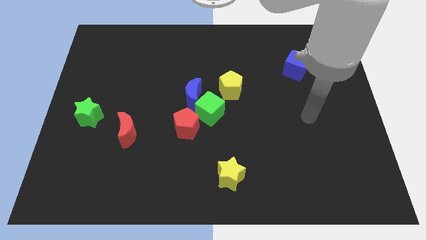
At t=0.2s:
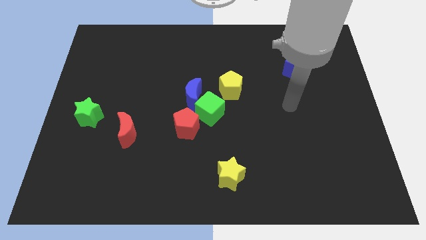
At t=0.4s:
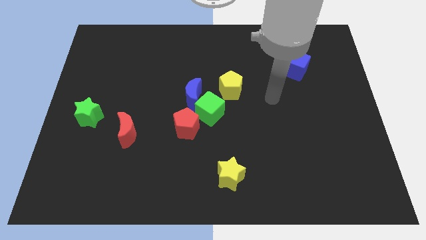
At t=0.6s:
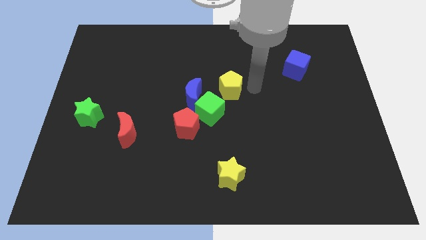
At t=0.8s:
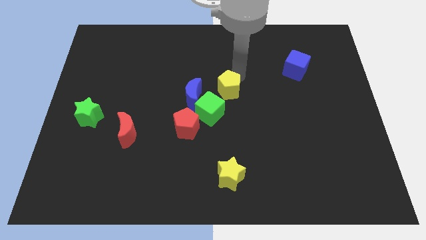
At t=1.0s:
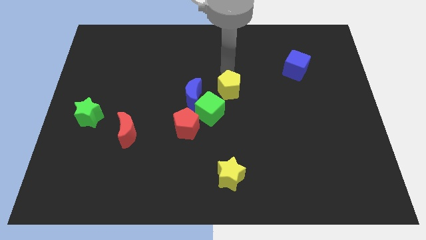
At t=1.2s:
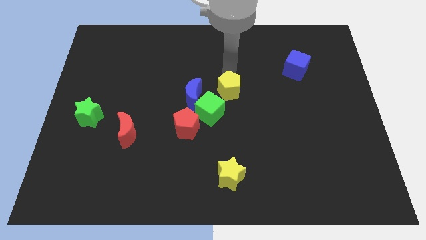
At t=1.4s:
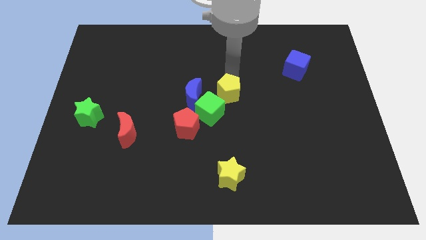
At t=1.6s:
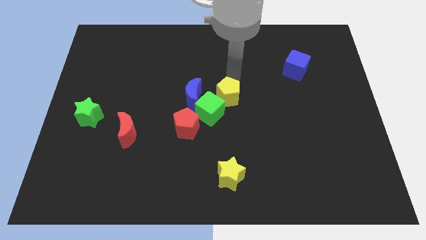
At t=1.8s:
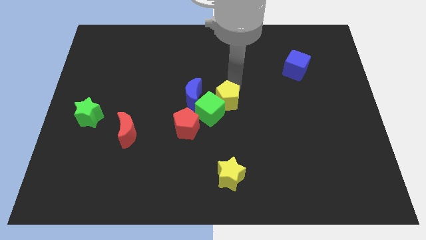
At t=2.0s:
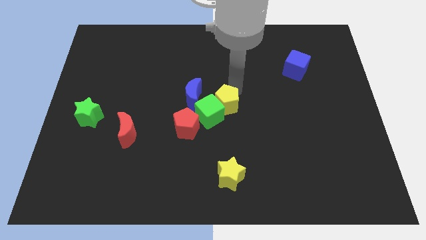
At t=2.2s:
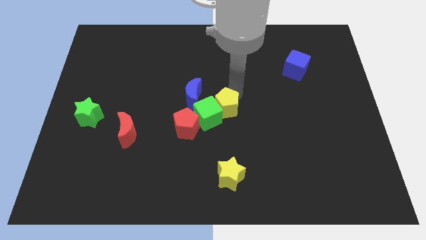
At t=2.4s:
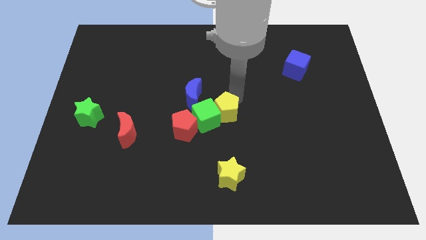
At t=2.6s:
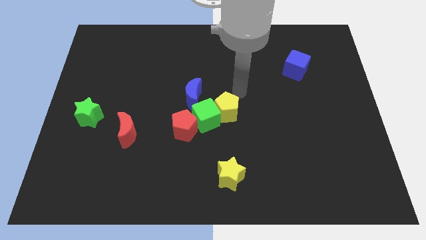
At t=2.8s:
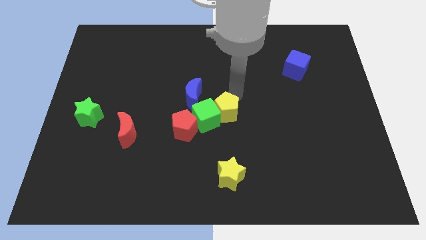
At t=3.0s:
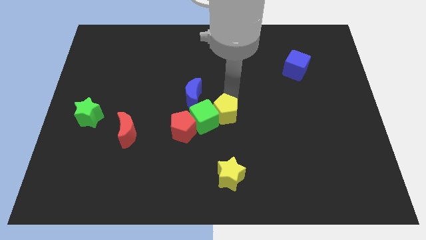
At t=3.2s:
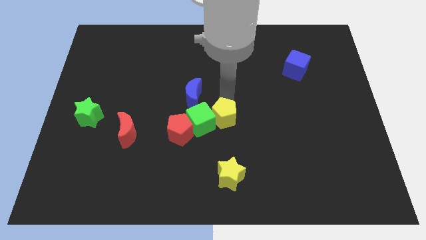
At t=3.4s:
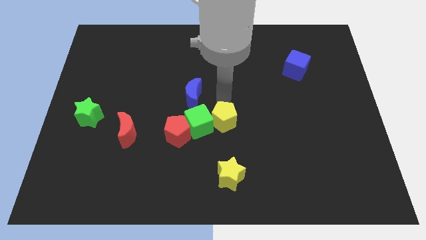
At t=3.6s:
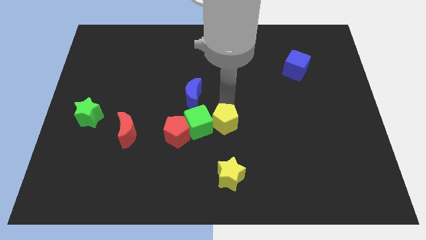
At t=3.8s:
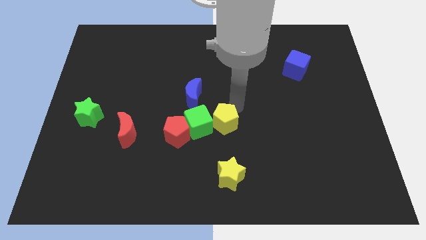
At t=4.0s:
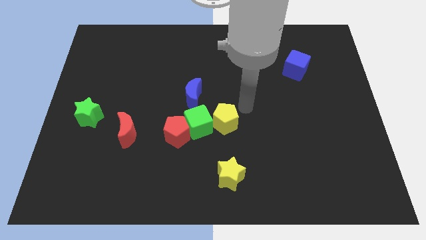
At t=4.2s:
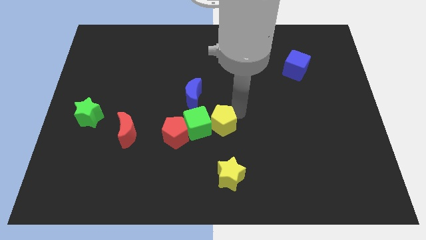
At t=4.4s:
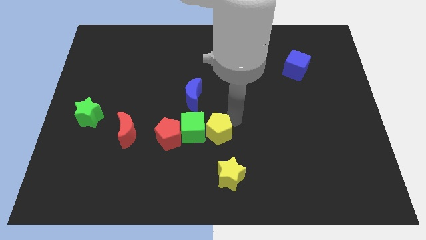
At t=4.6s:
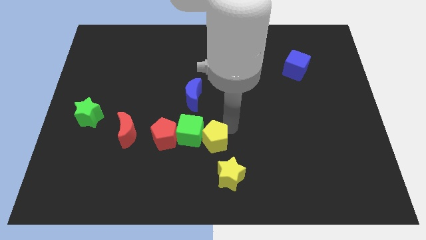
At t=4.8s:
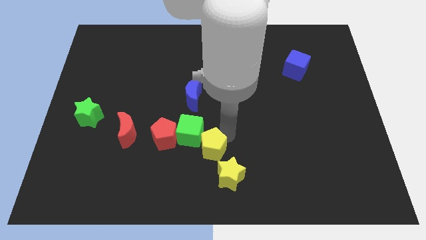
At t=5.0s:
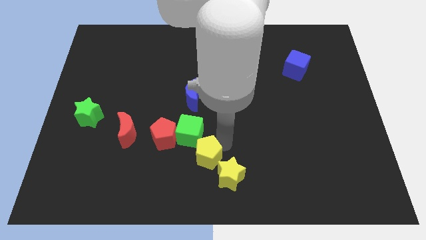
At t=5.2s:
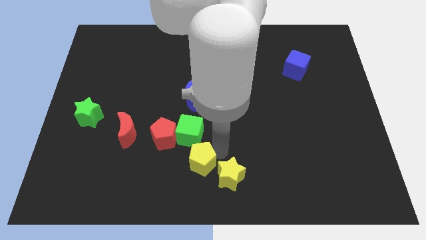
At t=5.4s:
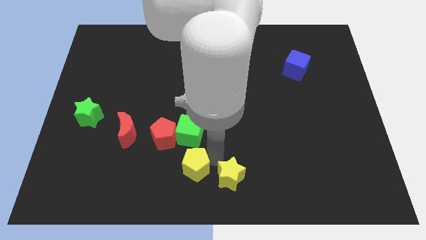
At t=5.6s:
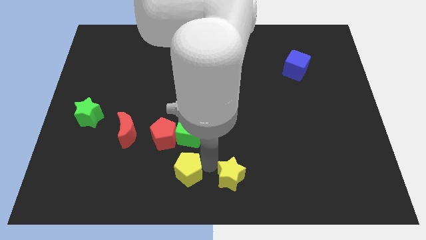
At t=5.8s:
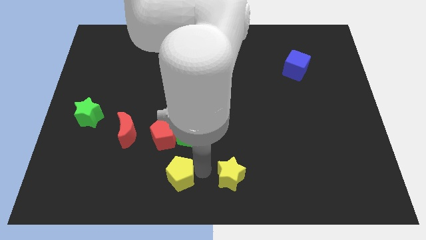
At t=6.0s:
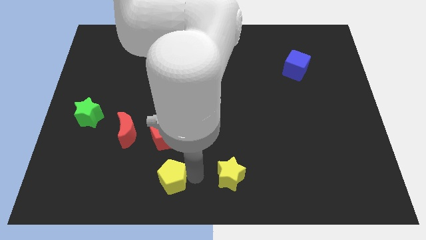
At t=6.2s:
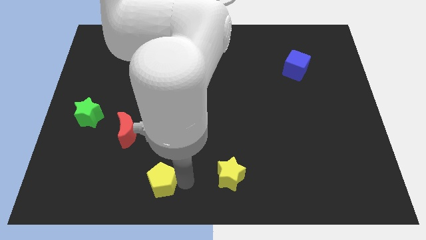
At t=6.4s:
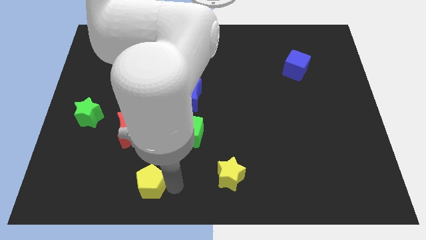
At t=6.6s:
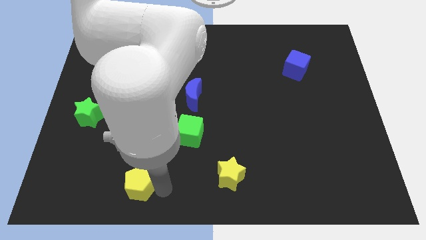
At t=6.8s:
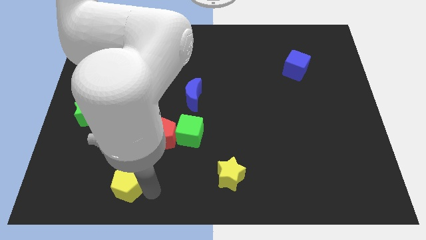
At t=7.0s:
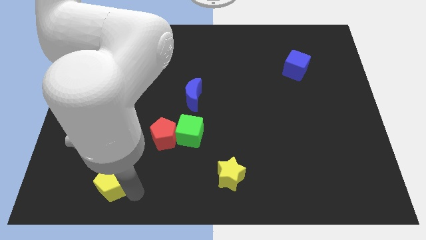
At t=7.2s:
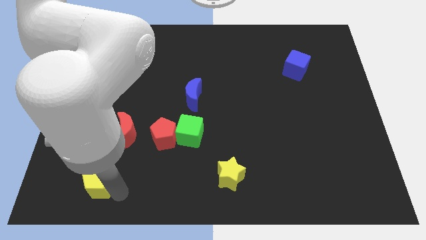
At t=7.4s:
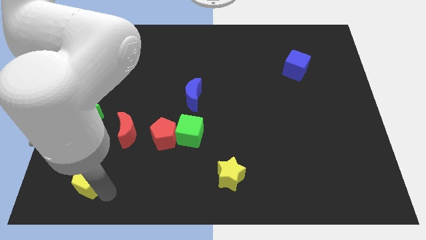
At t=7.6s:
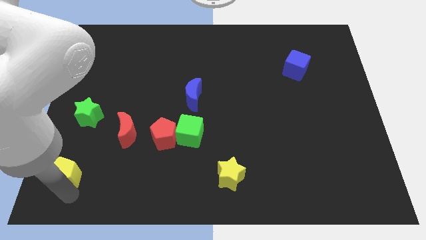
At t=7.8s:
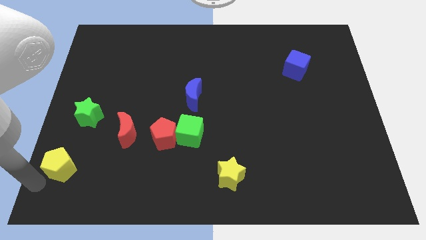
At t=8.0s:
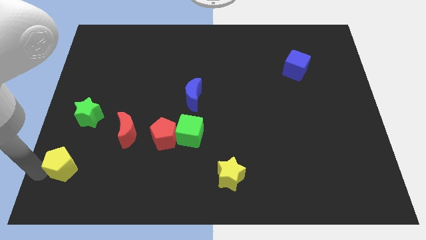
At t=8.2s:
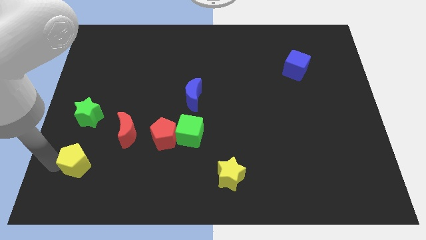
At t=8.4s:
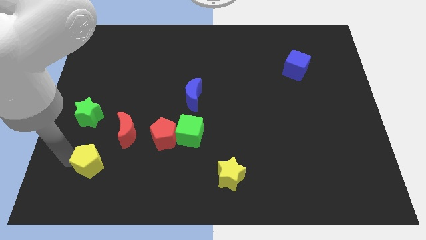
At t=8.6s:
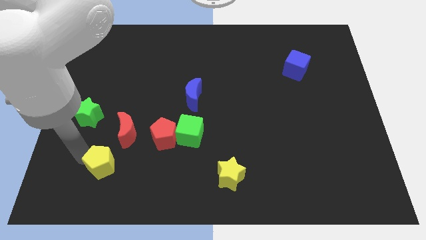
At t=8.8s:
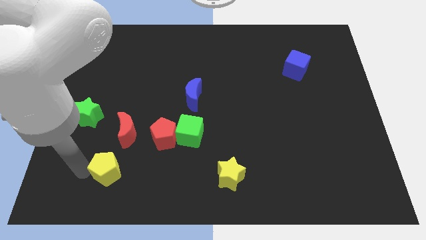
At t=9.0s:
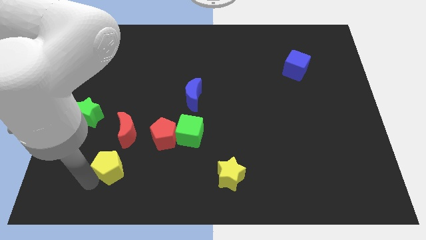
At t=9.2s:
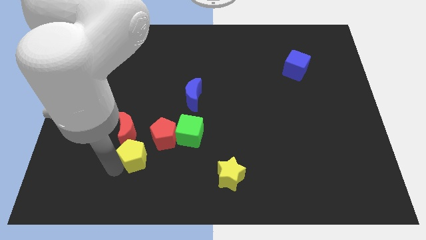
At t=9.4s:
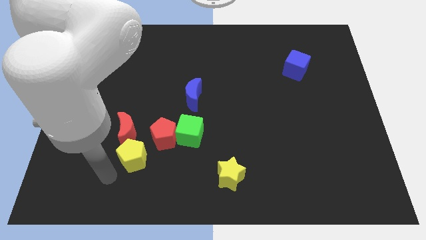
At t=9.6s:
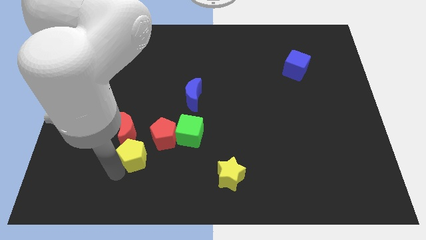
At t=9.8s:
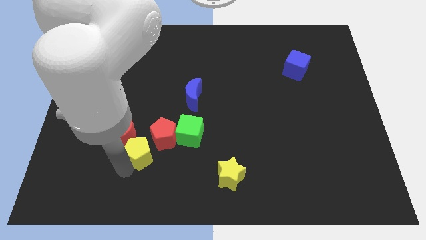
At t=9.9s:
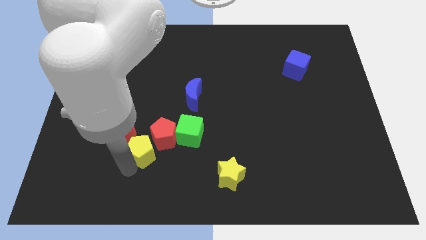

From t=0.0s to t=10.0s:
push the yellow pentagon to the red pentagon

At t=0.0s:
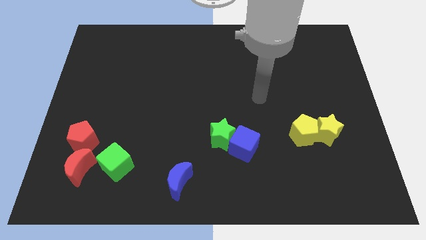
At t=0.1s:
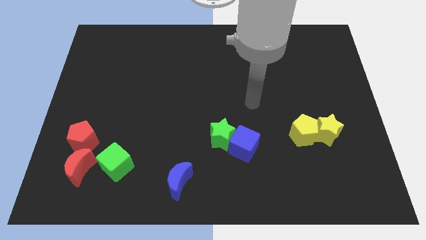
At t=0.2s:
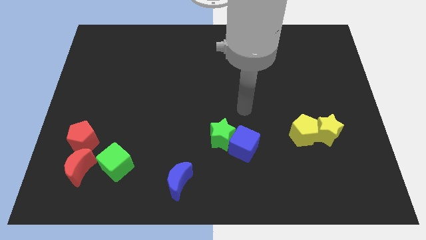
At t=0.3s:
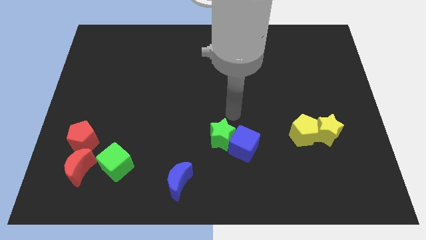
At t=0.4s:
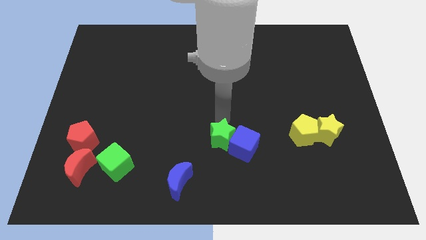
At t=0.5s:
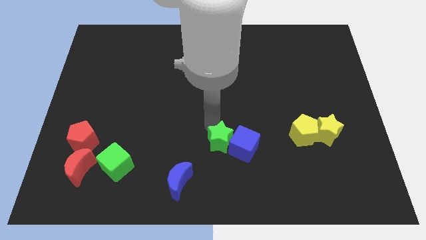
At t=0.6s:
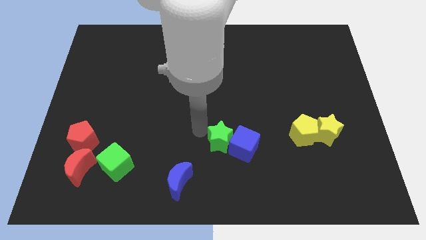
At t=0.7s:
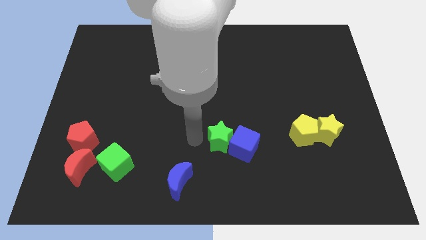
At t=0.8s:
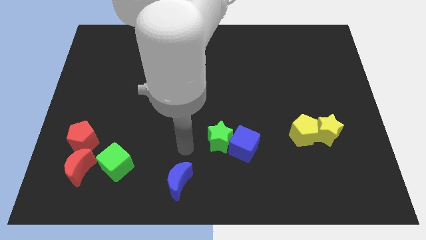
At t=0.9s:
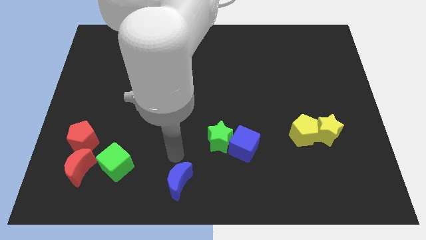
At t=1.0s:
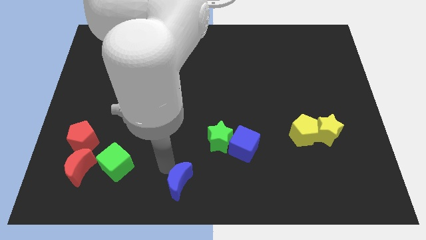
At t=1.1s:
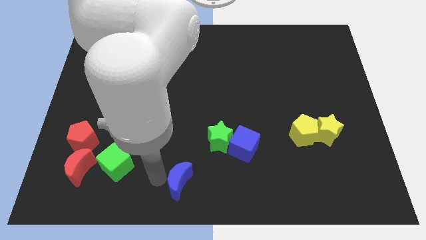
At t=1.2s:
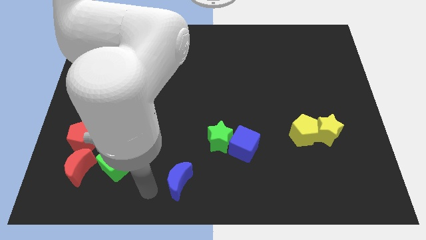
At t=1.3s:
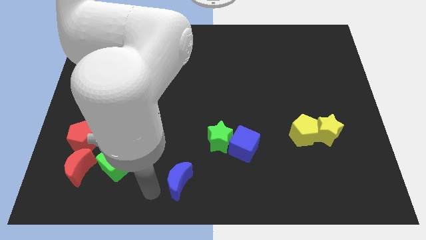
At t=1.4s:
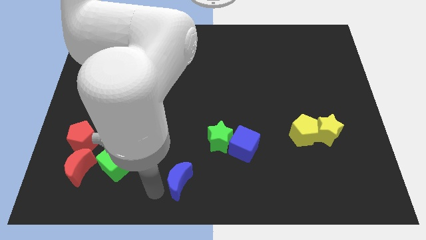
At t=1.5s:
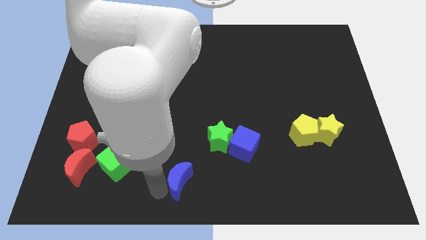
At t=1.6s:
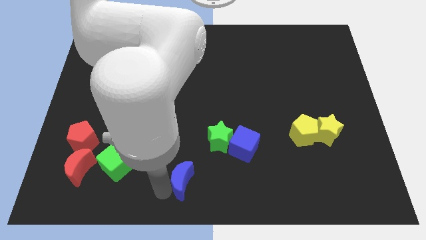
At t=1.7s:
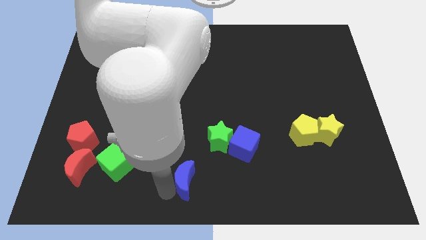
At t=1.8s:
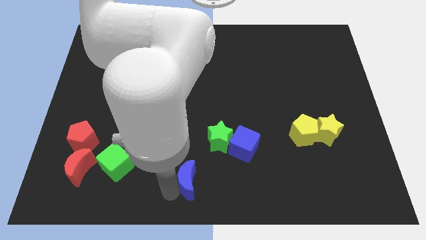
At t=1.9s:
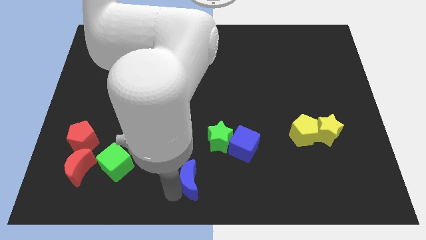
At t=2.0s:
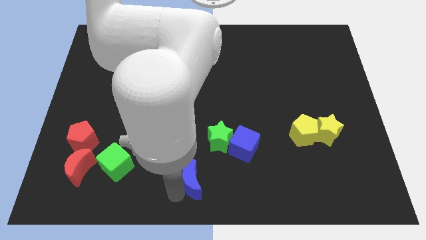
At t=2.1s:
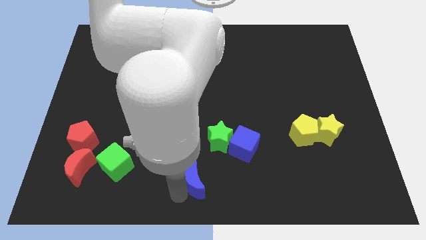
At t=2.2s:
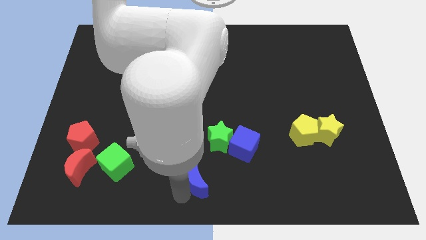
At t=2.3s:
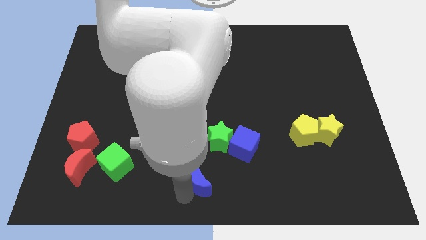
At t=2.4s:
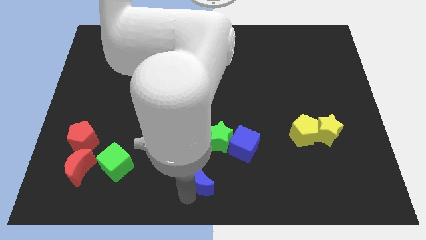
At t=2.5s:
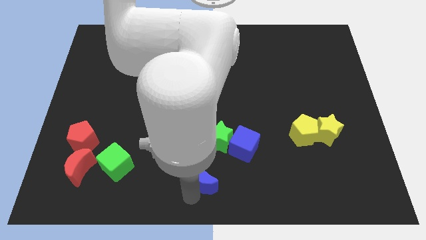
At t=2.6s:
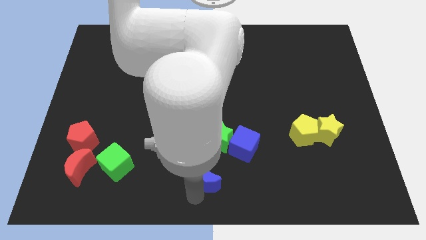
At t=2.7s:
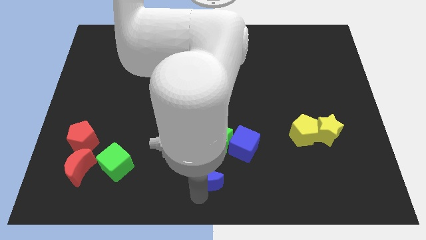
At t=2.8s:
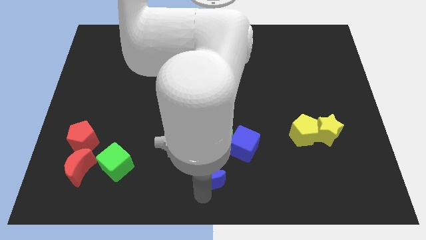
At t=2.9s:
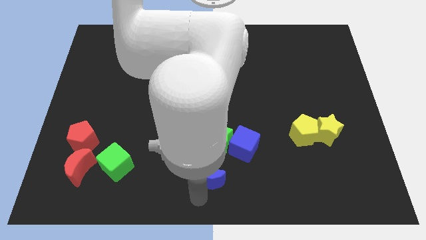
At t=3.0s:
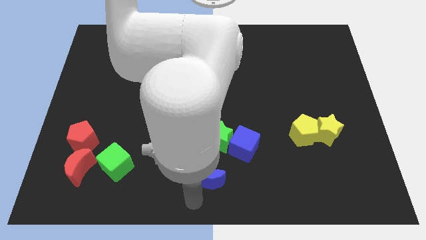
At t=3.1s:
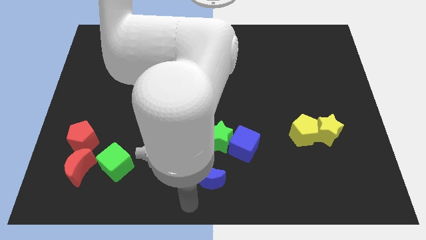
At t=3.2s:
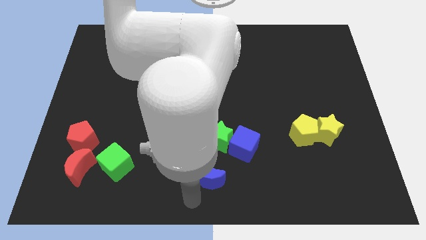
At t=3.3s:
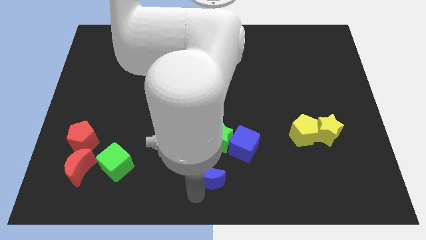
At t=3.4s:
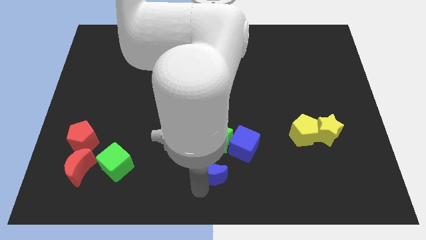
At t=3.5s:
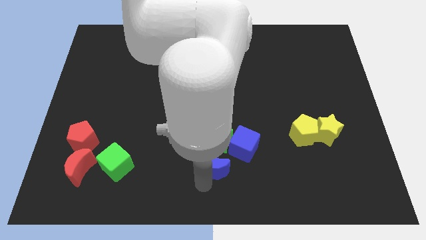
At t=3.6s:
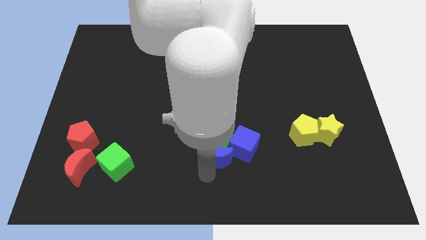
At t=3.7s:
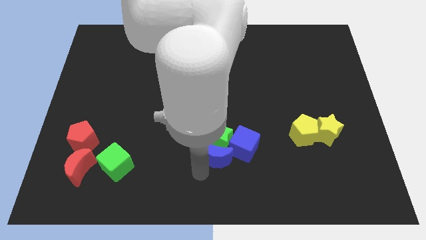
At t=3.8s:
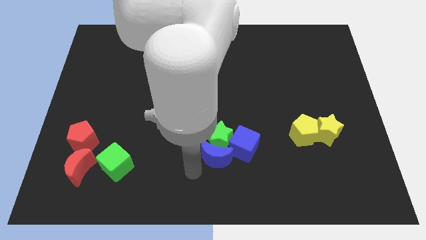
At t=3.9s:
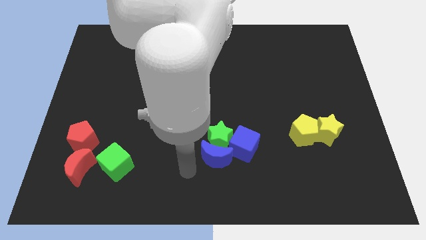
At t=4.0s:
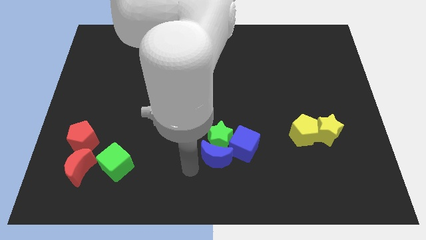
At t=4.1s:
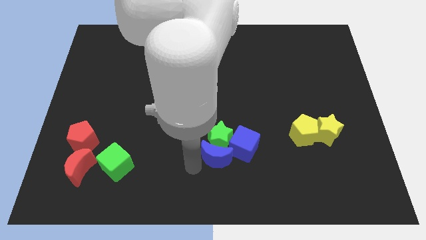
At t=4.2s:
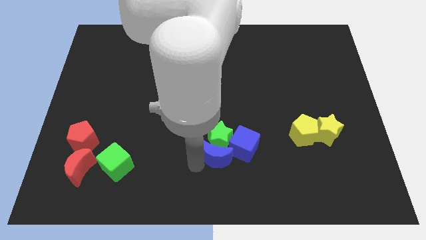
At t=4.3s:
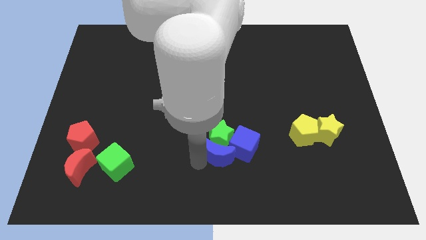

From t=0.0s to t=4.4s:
move the blue moon next to the blue cube
